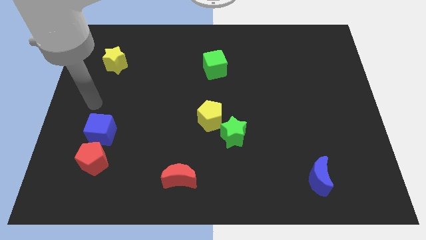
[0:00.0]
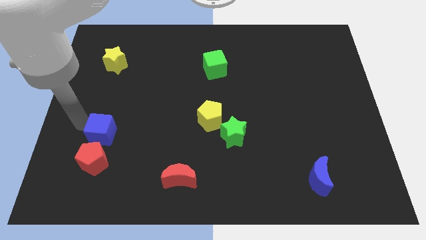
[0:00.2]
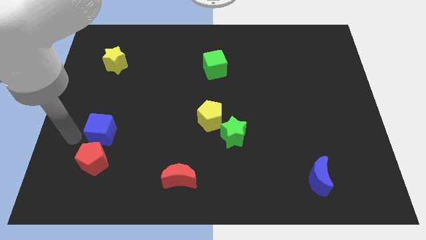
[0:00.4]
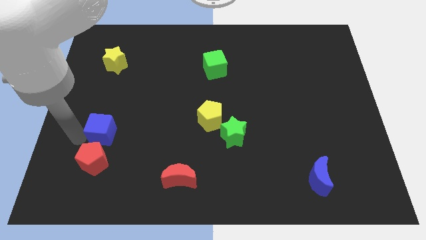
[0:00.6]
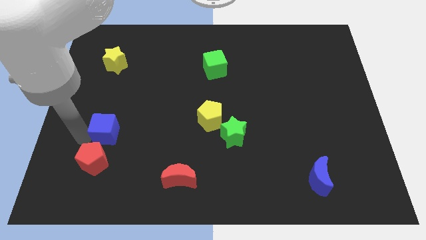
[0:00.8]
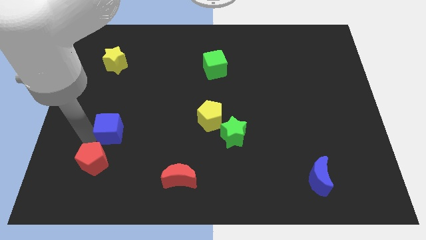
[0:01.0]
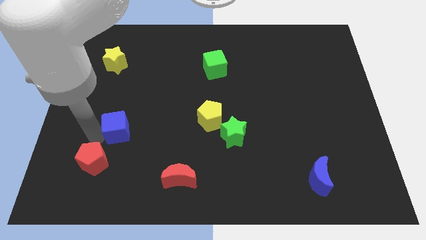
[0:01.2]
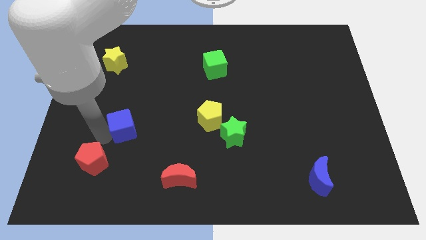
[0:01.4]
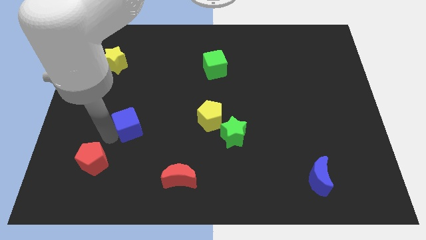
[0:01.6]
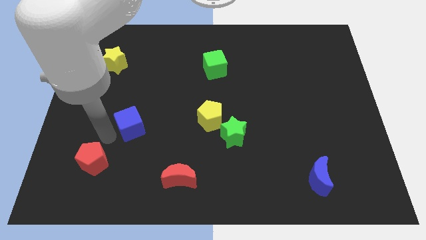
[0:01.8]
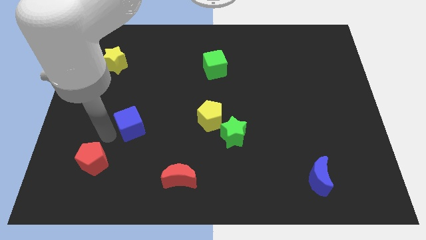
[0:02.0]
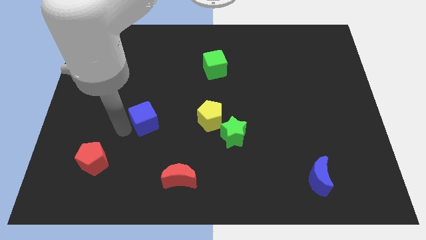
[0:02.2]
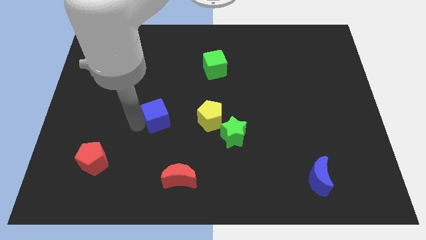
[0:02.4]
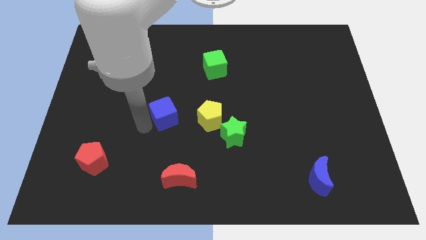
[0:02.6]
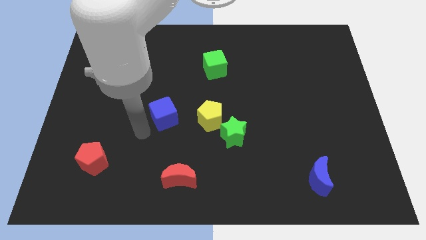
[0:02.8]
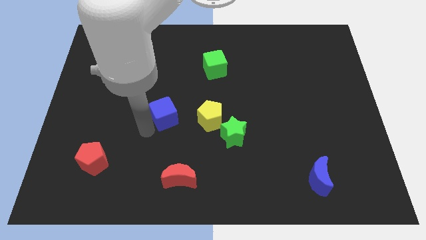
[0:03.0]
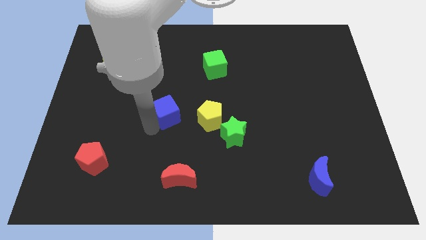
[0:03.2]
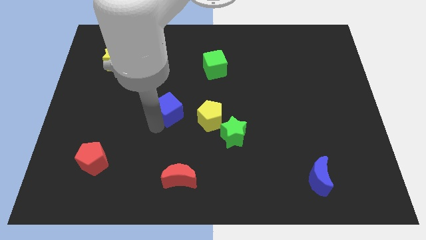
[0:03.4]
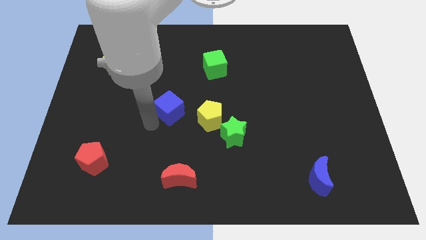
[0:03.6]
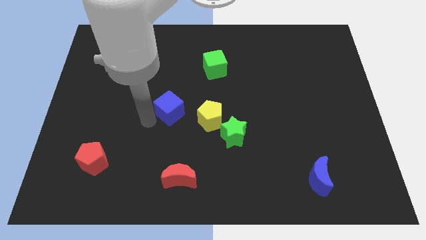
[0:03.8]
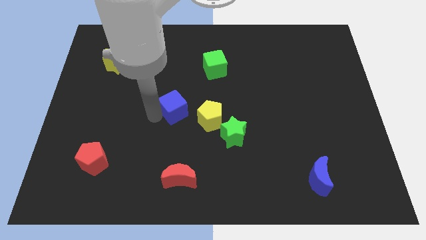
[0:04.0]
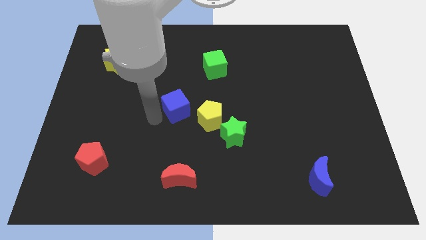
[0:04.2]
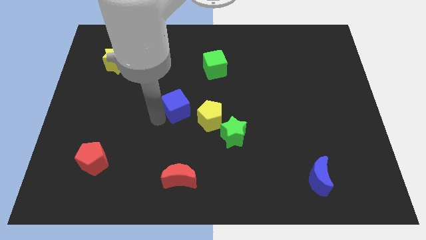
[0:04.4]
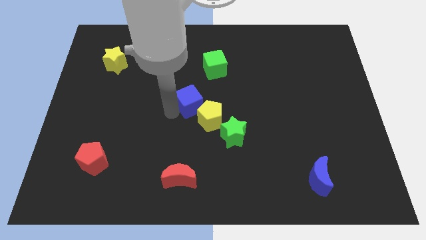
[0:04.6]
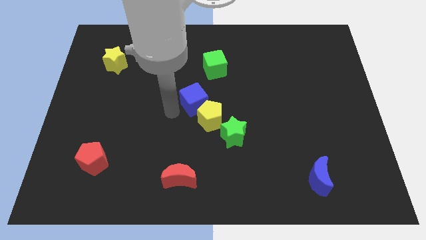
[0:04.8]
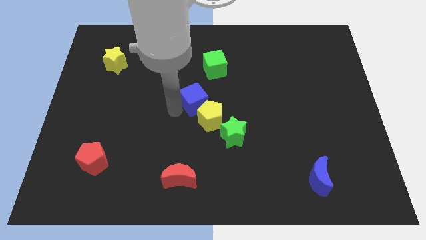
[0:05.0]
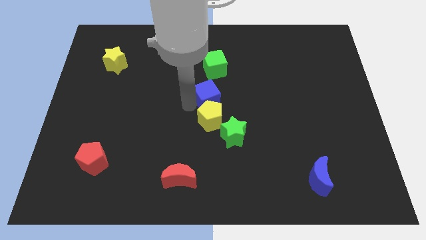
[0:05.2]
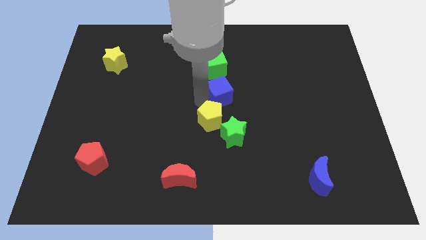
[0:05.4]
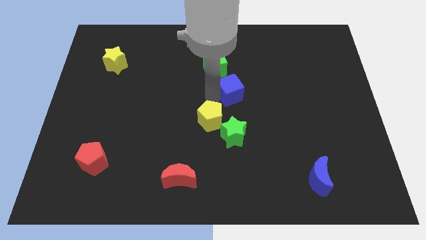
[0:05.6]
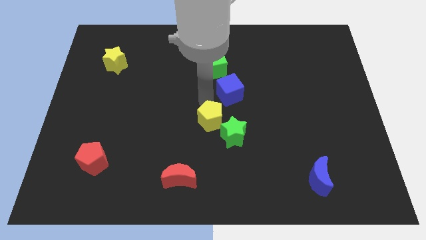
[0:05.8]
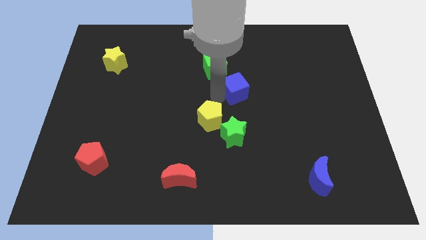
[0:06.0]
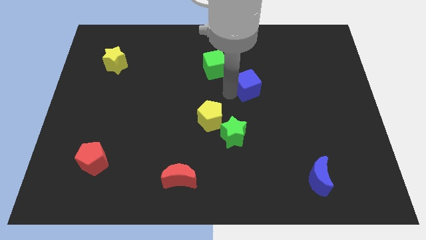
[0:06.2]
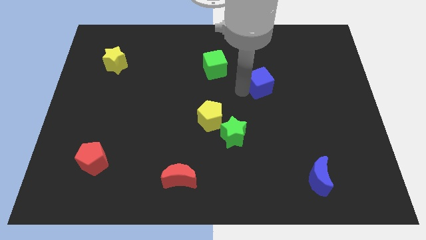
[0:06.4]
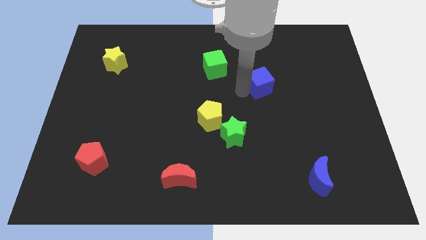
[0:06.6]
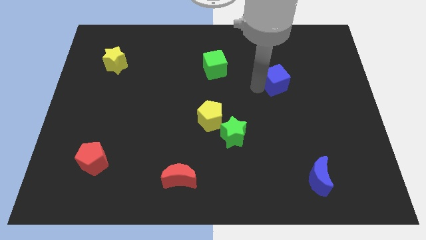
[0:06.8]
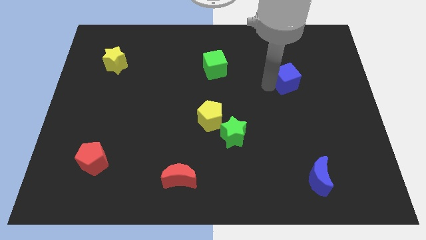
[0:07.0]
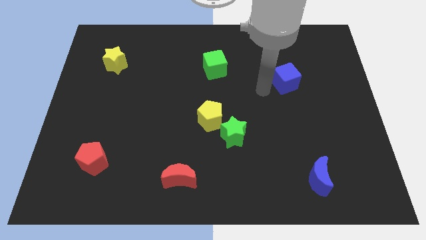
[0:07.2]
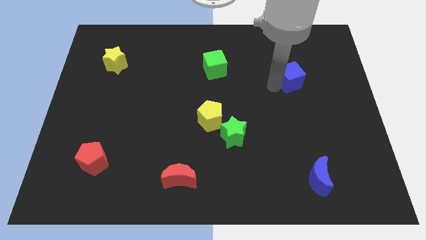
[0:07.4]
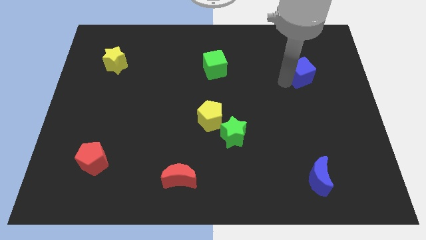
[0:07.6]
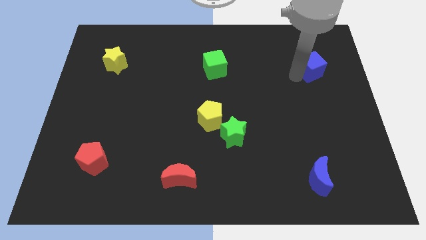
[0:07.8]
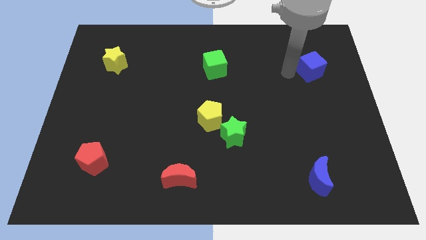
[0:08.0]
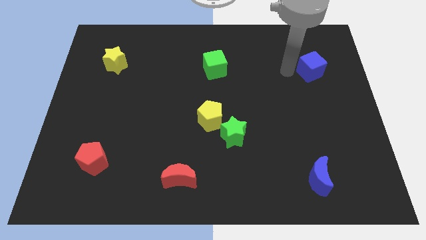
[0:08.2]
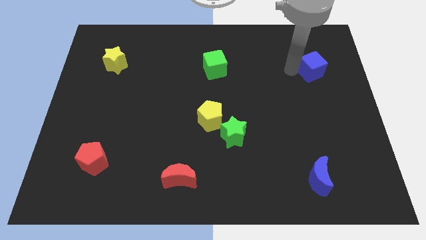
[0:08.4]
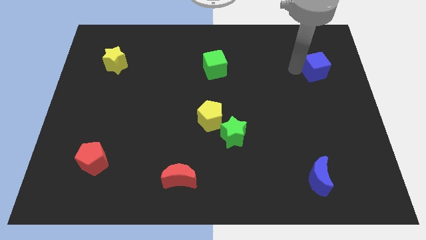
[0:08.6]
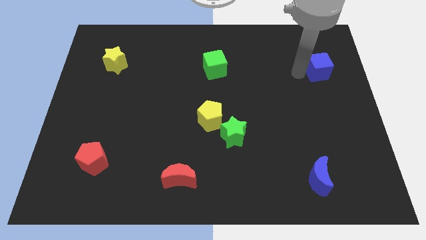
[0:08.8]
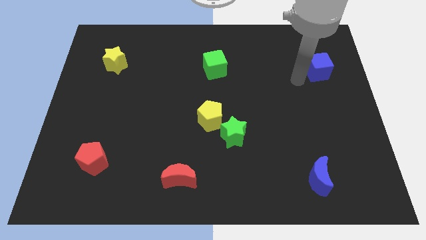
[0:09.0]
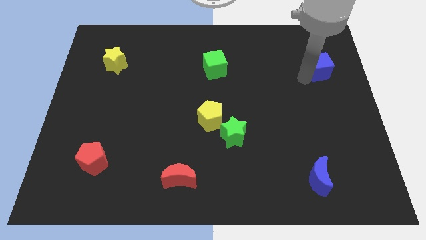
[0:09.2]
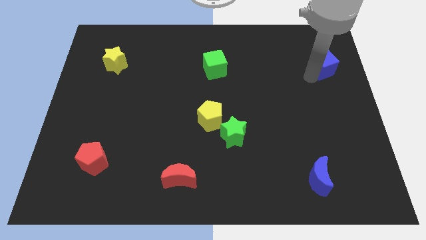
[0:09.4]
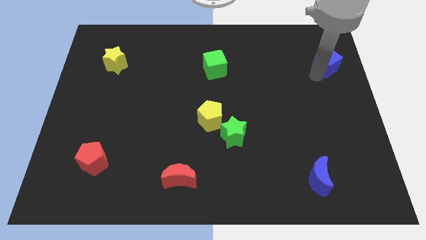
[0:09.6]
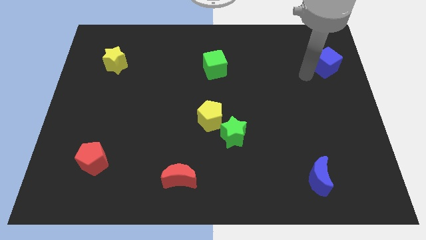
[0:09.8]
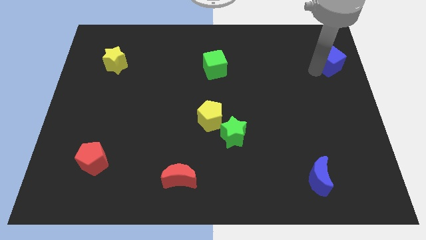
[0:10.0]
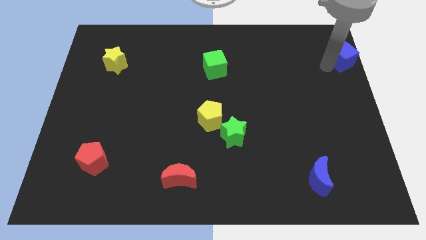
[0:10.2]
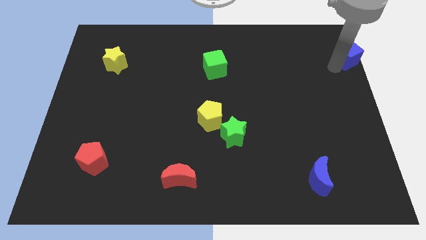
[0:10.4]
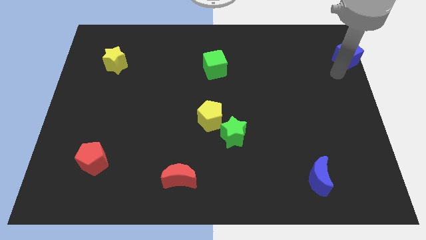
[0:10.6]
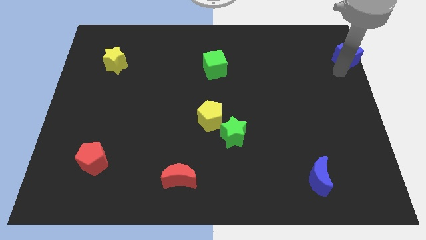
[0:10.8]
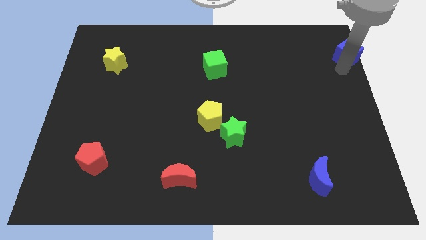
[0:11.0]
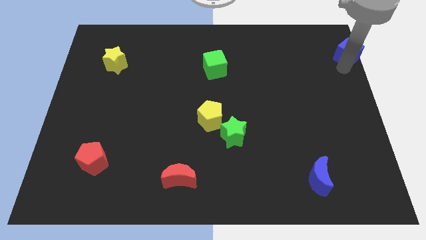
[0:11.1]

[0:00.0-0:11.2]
put the blue cube to the upper right corner

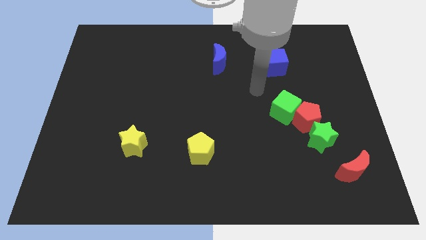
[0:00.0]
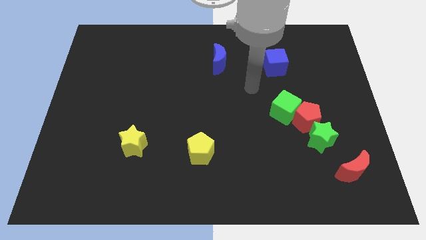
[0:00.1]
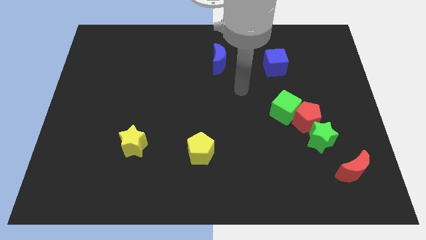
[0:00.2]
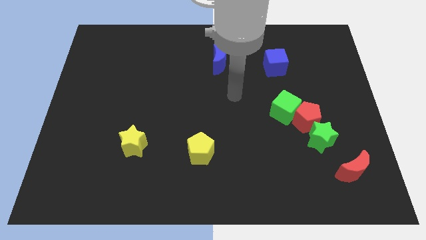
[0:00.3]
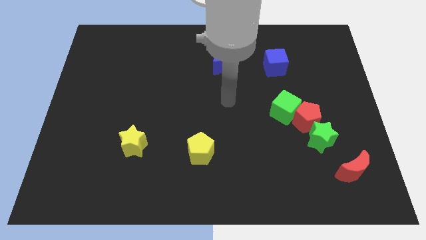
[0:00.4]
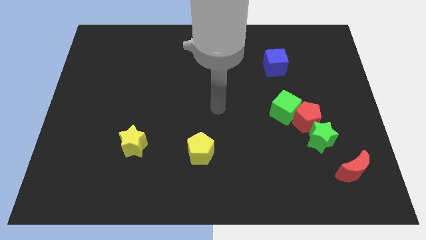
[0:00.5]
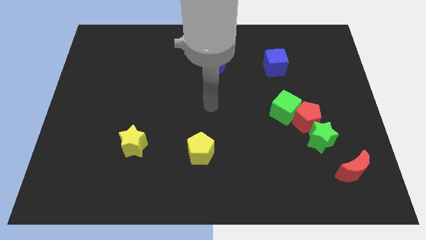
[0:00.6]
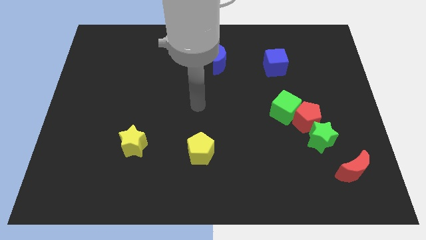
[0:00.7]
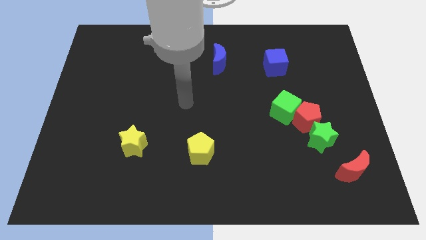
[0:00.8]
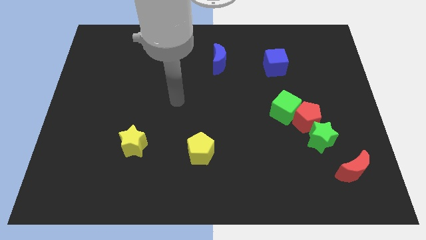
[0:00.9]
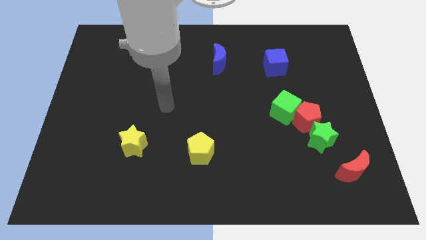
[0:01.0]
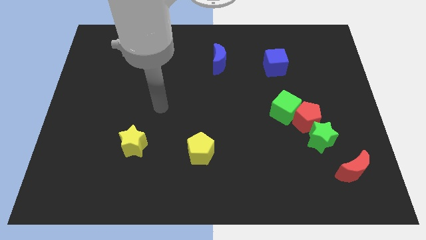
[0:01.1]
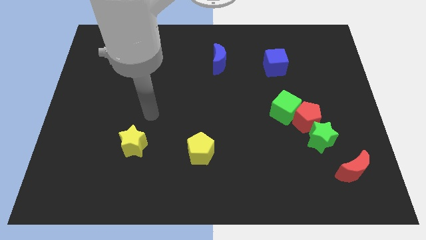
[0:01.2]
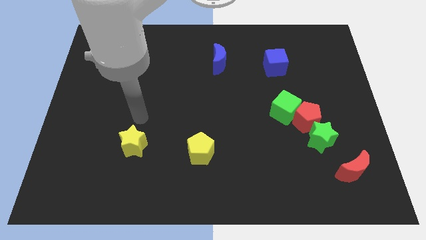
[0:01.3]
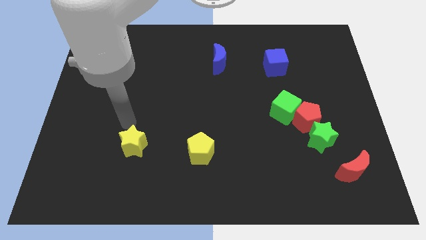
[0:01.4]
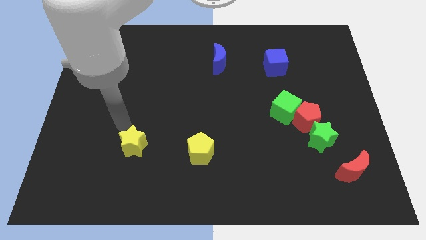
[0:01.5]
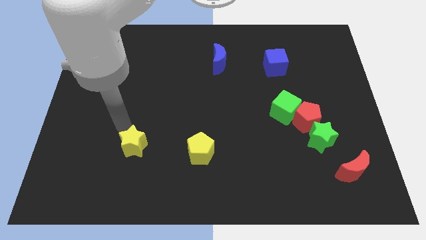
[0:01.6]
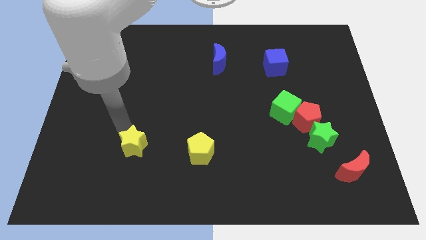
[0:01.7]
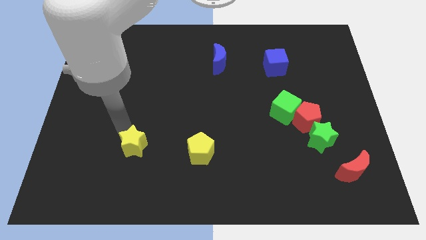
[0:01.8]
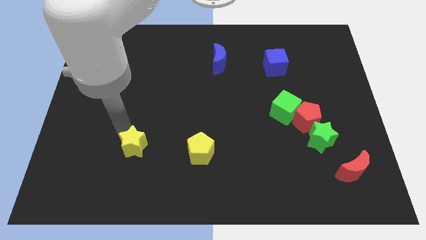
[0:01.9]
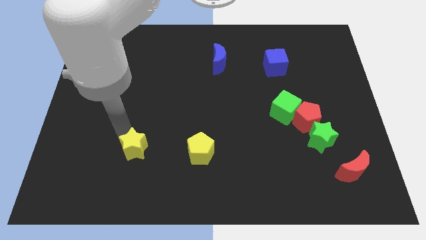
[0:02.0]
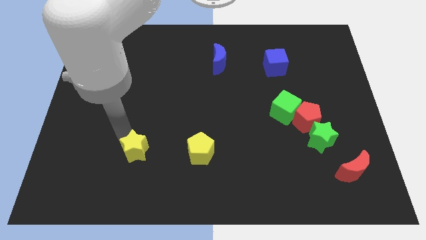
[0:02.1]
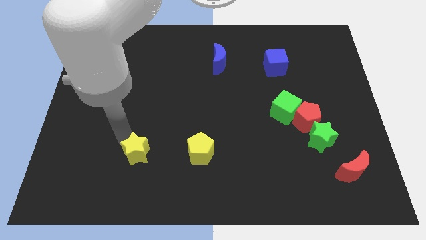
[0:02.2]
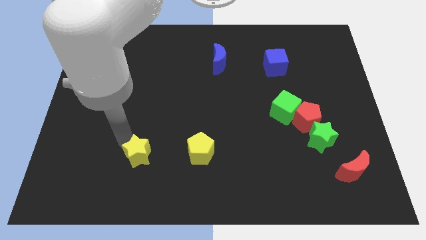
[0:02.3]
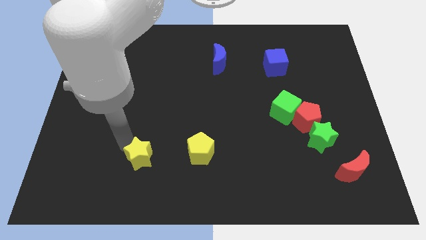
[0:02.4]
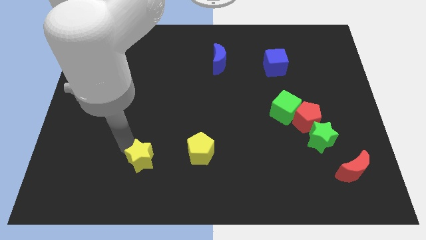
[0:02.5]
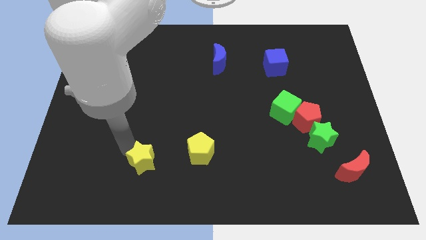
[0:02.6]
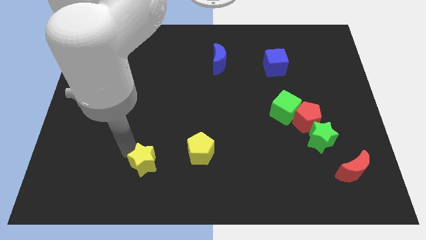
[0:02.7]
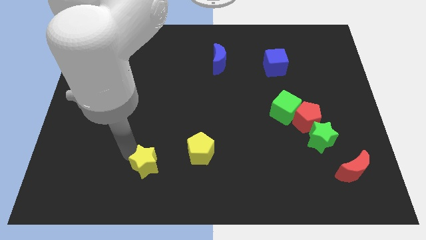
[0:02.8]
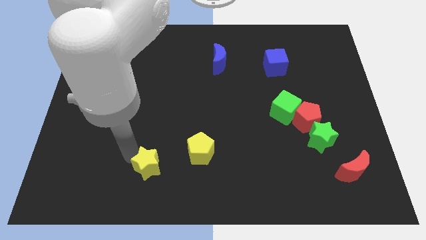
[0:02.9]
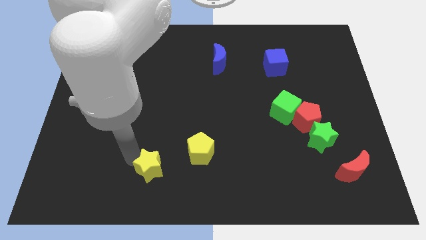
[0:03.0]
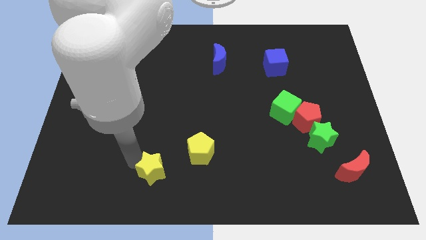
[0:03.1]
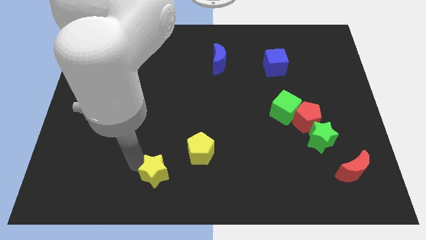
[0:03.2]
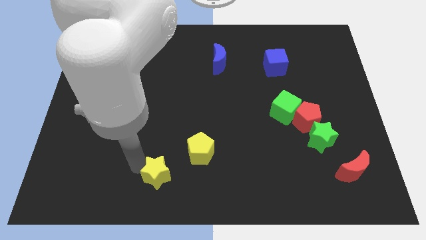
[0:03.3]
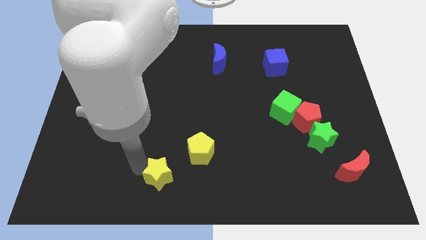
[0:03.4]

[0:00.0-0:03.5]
put the yellow star to the bottom
